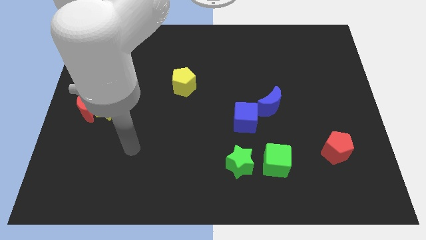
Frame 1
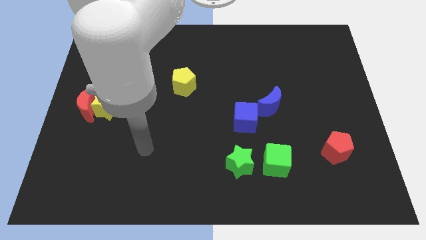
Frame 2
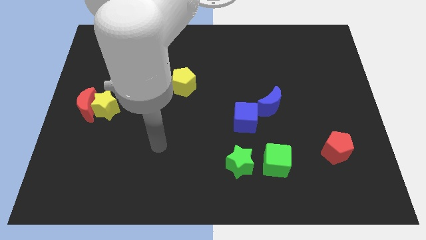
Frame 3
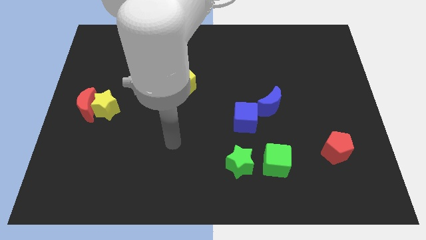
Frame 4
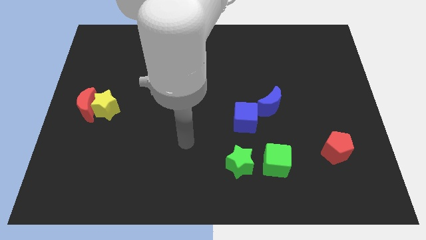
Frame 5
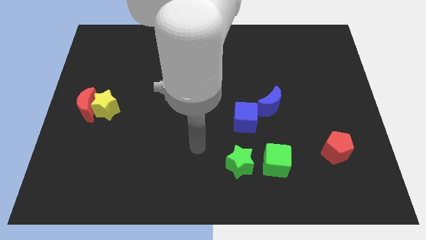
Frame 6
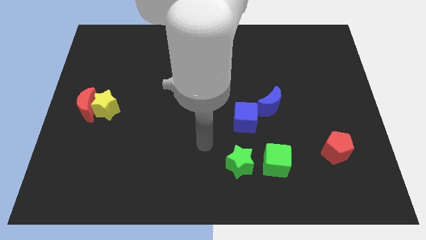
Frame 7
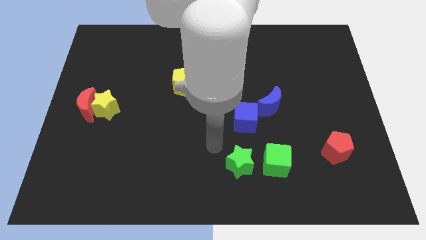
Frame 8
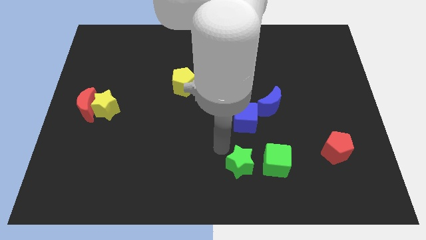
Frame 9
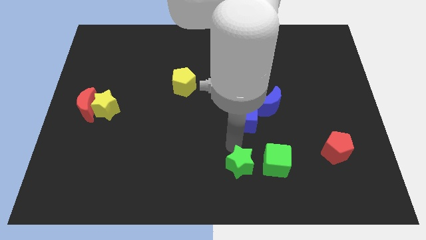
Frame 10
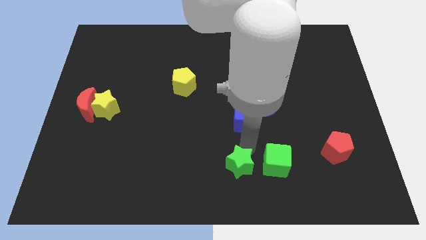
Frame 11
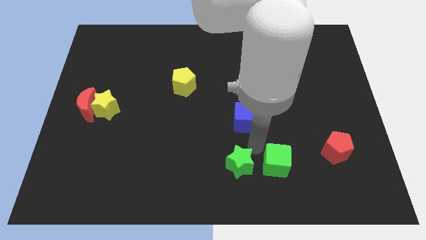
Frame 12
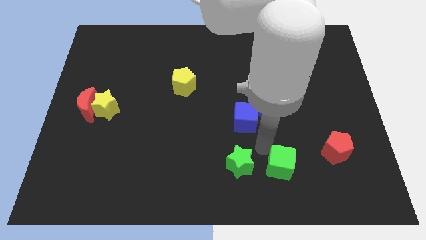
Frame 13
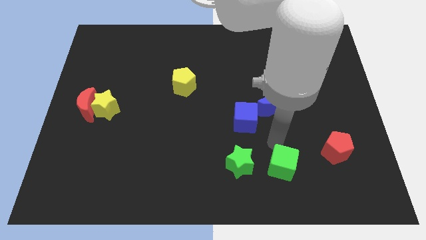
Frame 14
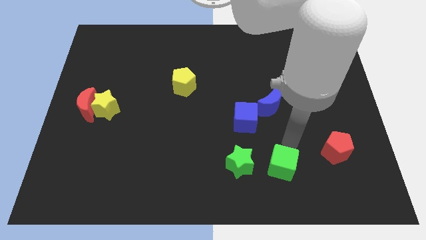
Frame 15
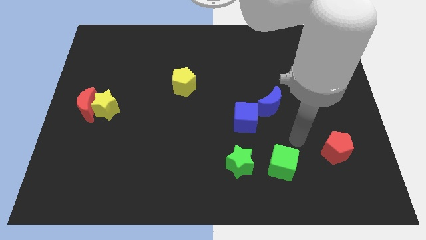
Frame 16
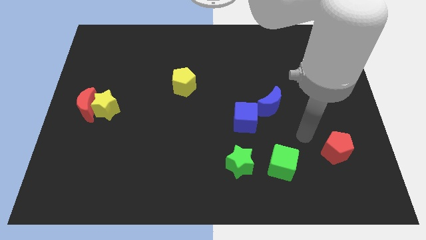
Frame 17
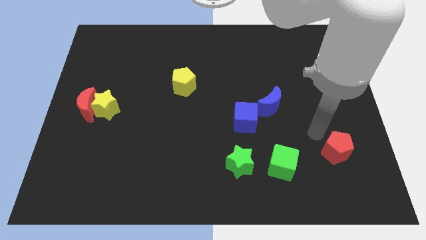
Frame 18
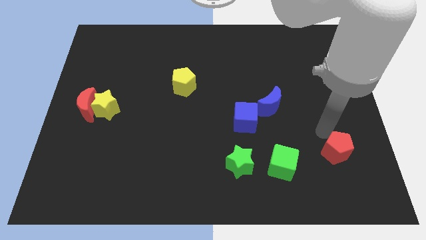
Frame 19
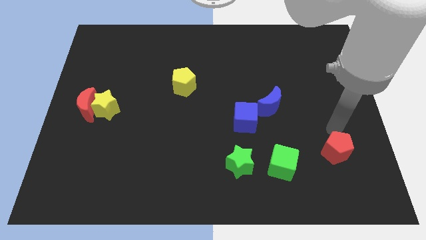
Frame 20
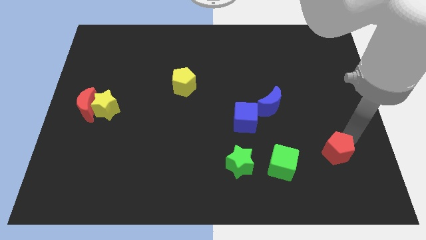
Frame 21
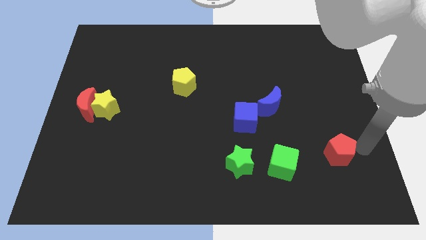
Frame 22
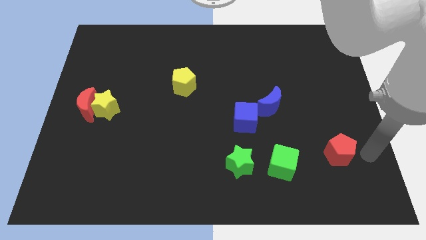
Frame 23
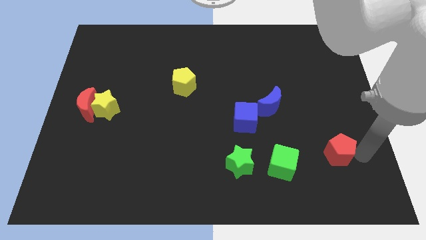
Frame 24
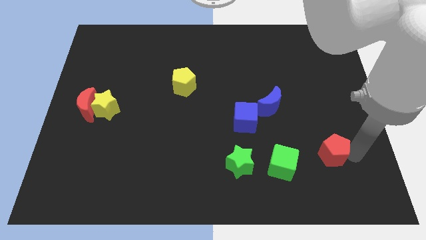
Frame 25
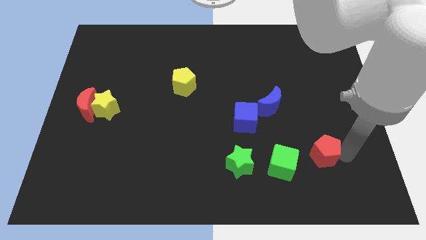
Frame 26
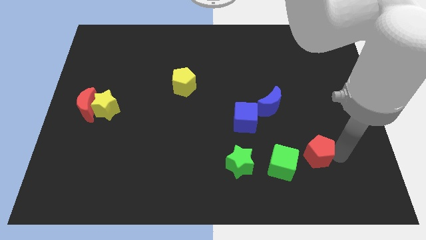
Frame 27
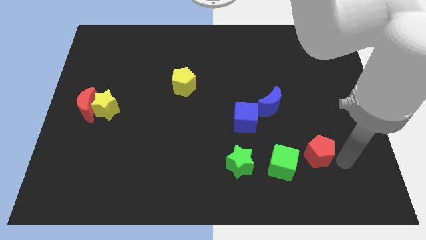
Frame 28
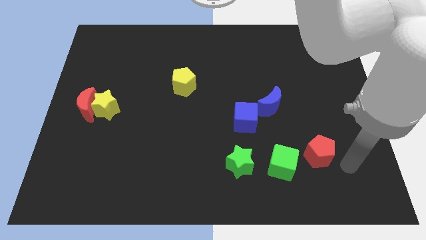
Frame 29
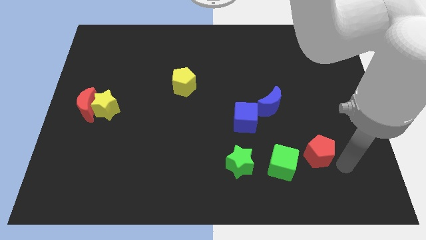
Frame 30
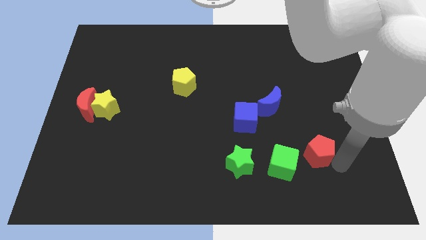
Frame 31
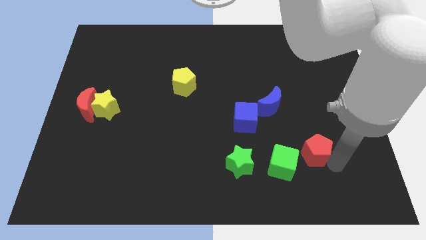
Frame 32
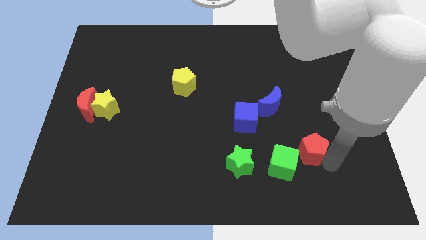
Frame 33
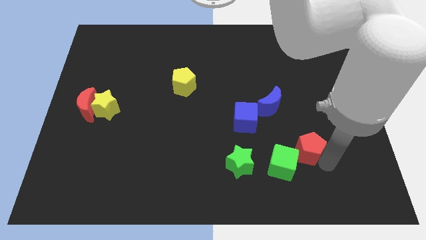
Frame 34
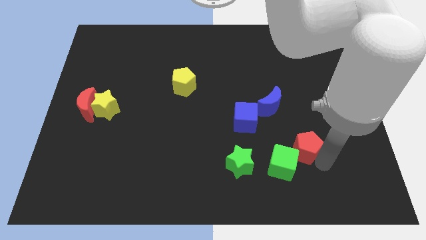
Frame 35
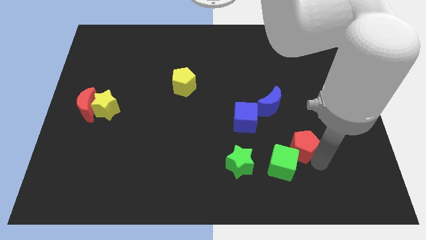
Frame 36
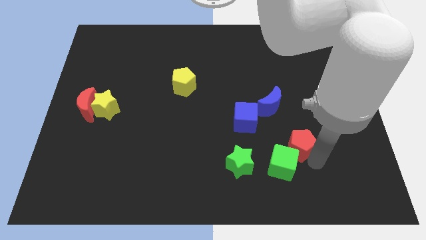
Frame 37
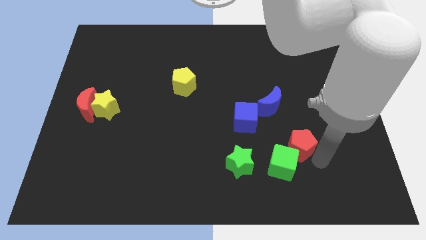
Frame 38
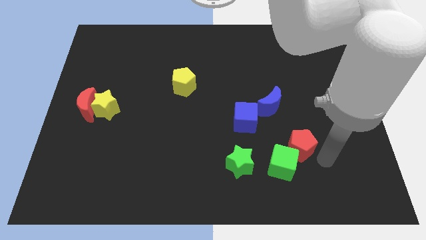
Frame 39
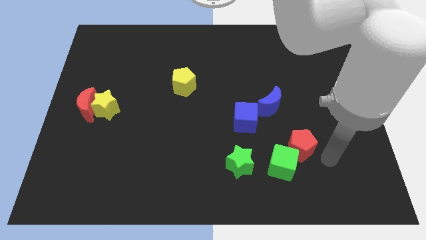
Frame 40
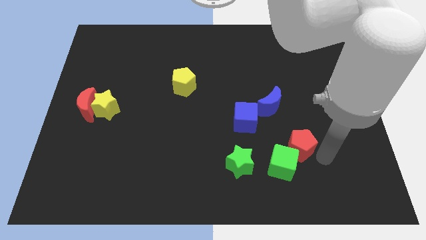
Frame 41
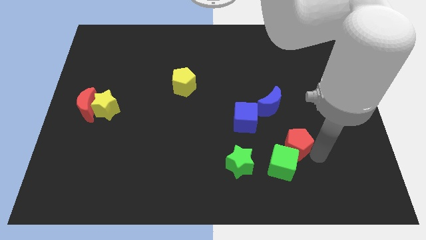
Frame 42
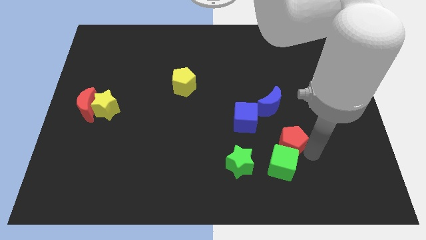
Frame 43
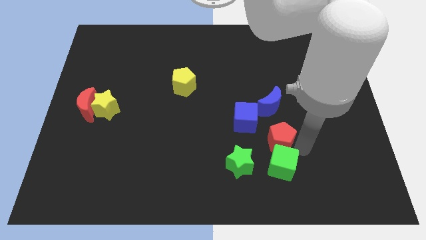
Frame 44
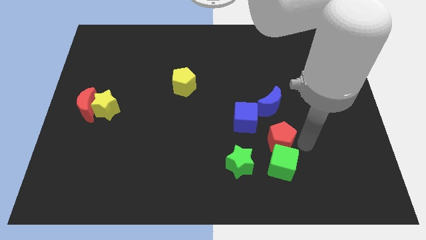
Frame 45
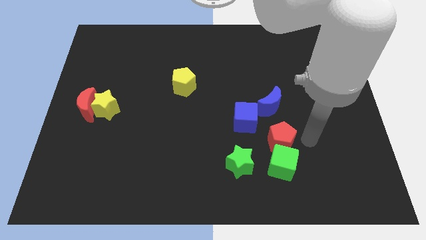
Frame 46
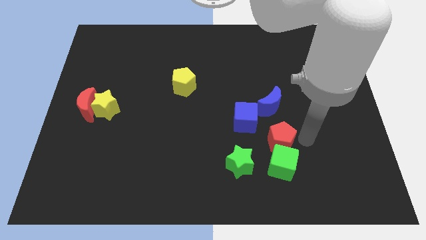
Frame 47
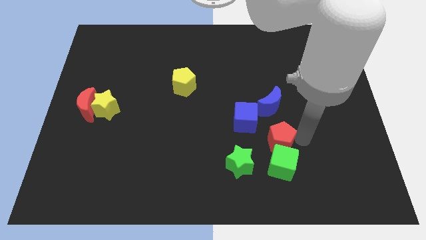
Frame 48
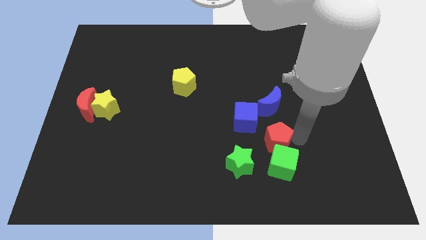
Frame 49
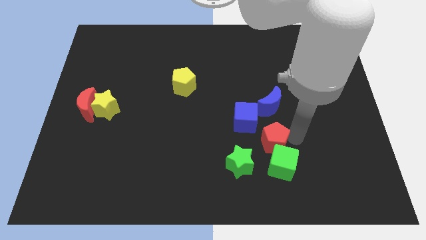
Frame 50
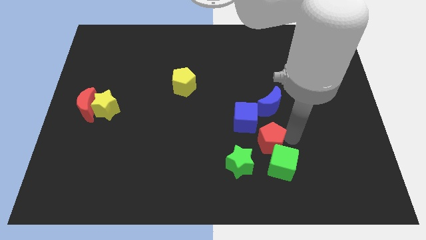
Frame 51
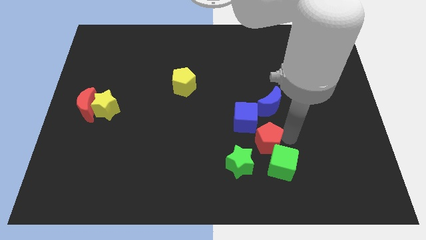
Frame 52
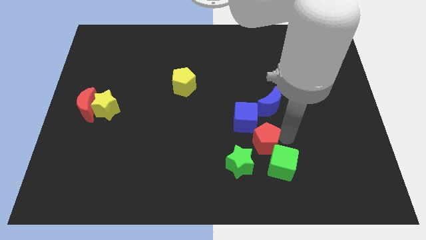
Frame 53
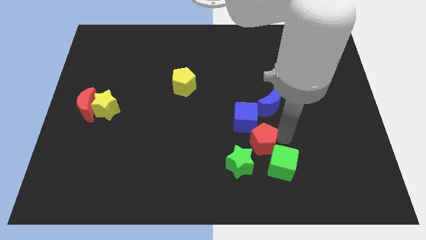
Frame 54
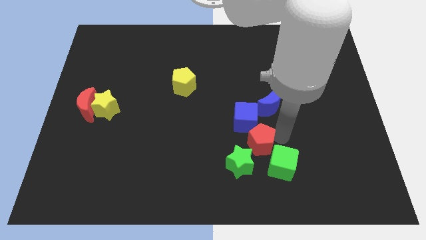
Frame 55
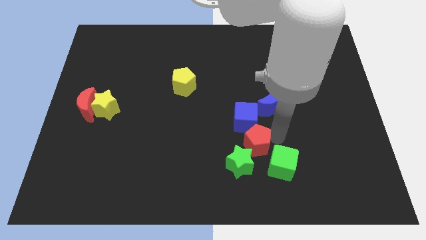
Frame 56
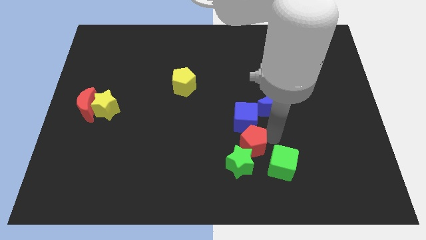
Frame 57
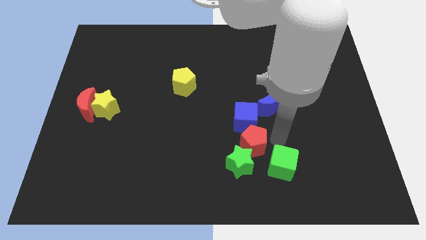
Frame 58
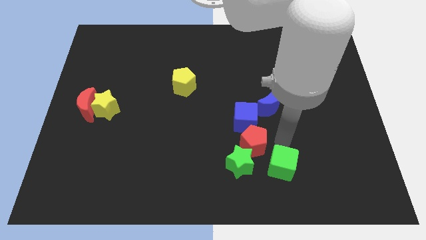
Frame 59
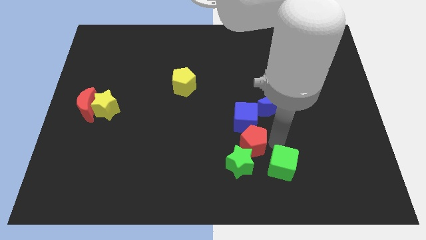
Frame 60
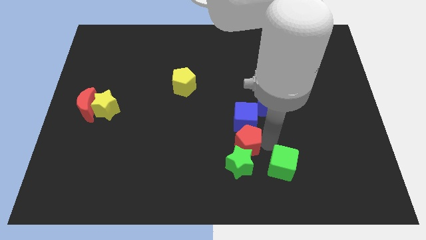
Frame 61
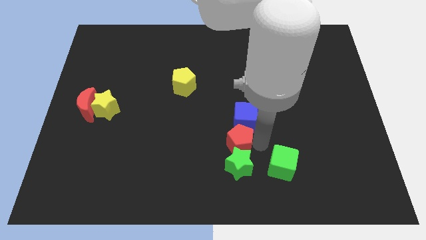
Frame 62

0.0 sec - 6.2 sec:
move the red pentagon to the left

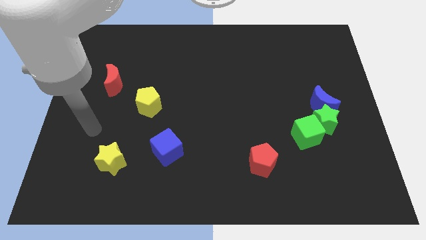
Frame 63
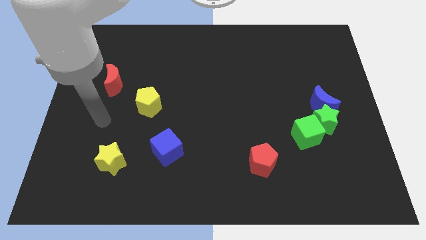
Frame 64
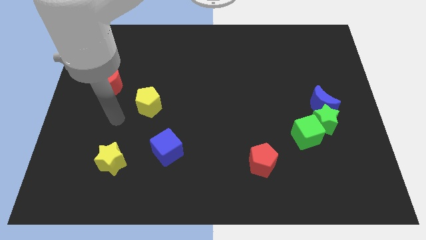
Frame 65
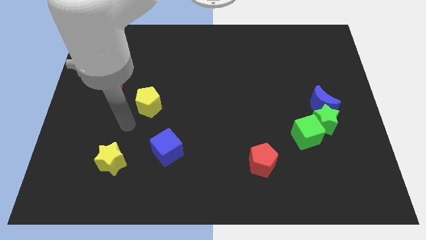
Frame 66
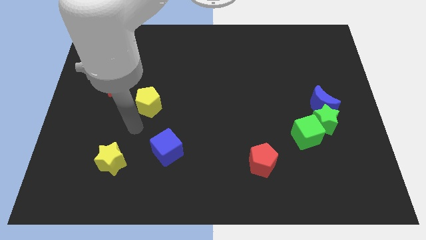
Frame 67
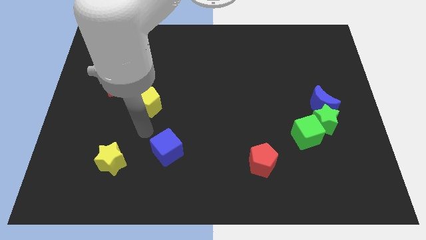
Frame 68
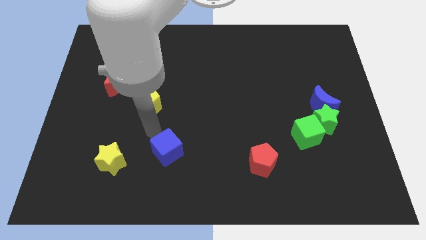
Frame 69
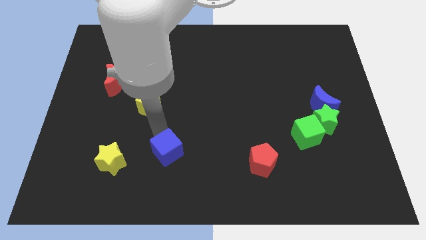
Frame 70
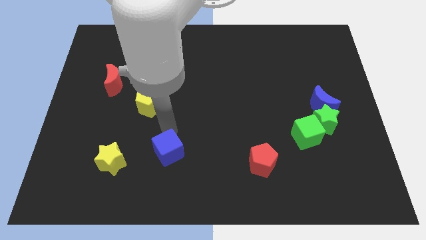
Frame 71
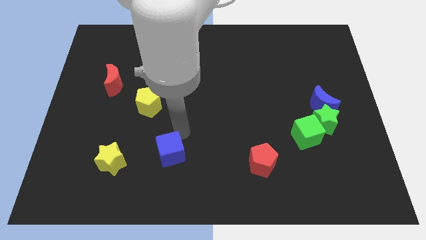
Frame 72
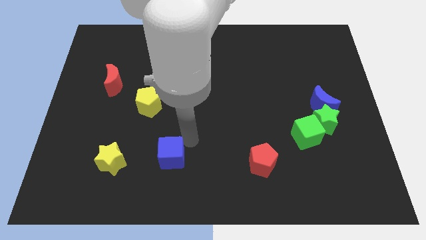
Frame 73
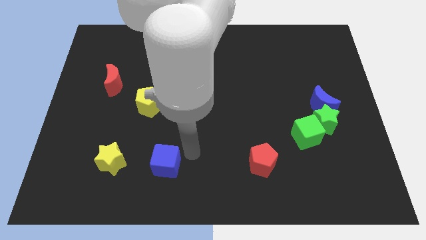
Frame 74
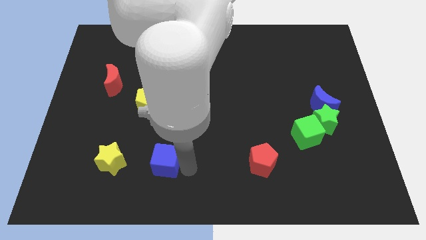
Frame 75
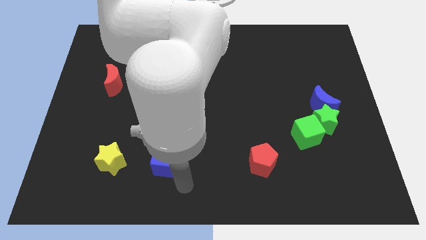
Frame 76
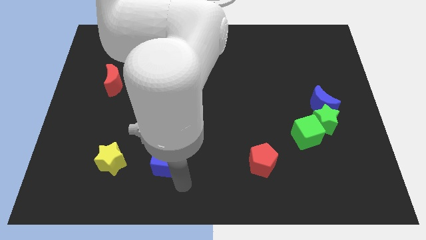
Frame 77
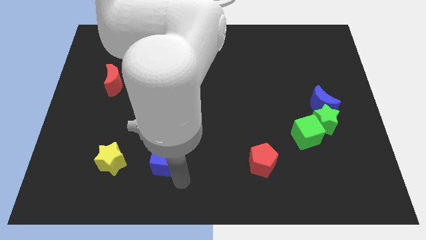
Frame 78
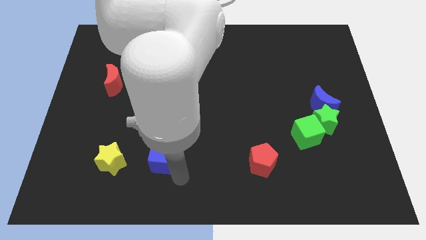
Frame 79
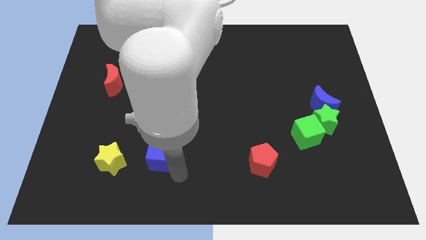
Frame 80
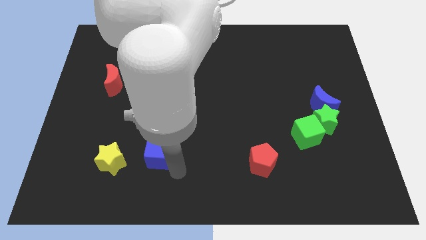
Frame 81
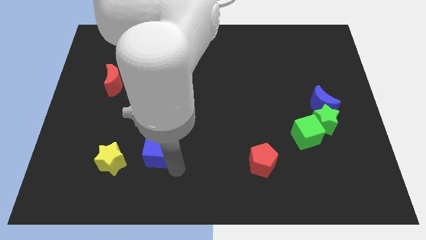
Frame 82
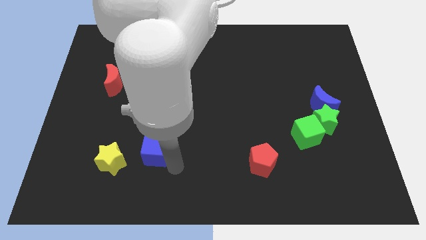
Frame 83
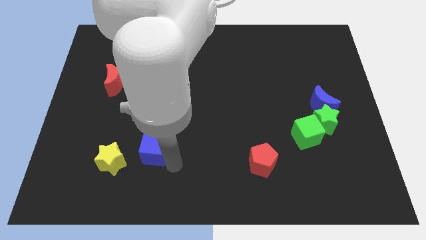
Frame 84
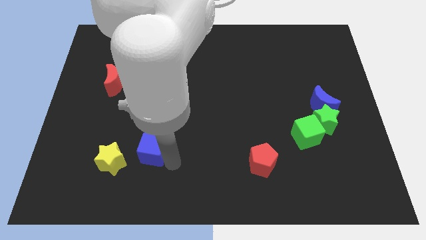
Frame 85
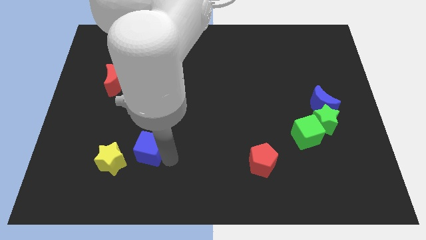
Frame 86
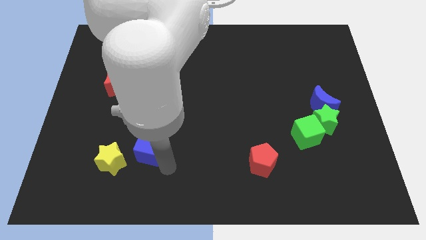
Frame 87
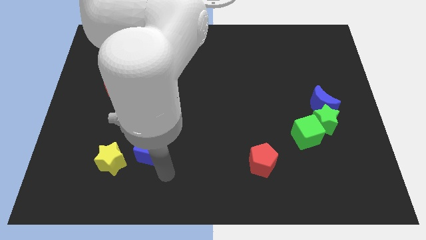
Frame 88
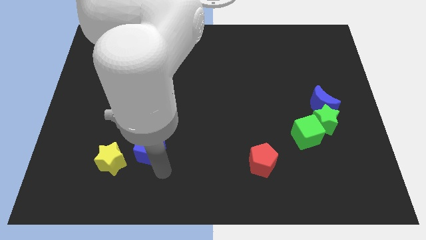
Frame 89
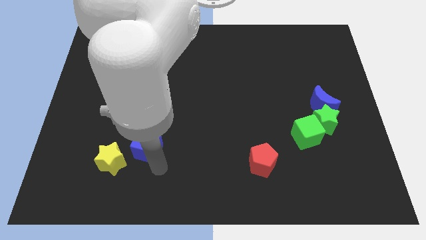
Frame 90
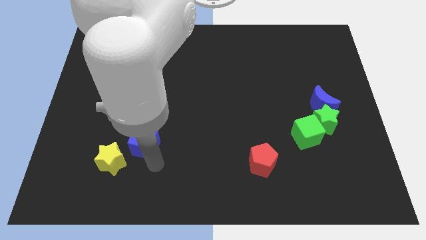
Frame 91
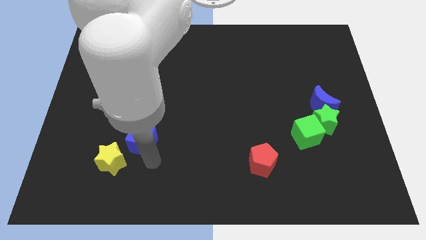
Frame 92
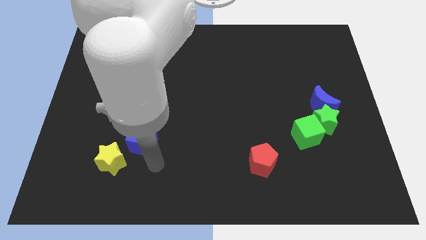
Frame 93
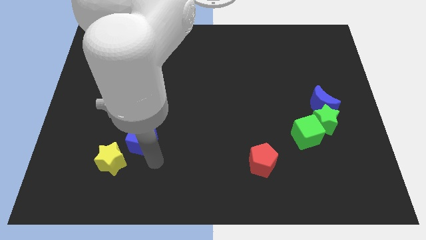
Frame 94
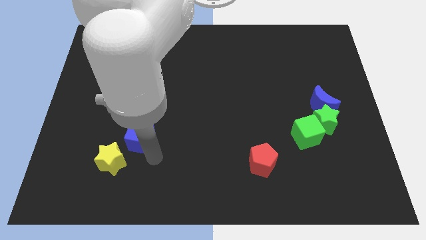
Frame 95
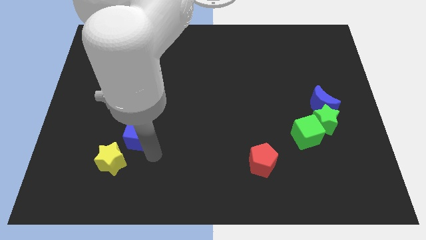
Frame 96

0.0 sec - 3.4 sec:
push the blue cube up and left a little bit
